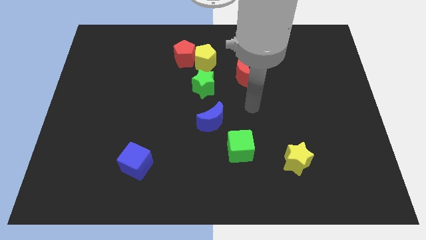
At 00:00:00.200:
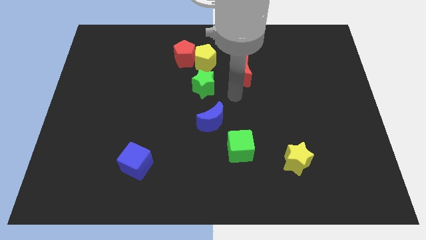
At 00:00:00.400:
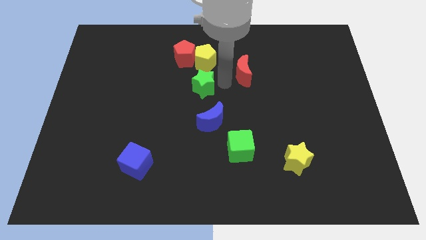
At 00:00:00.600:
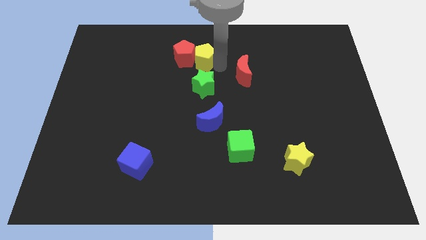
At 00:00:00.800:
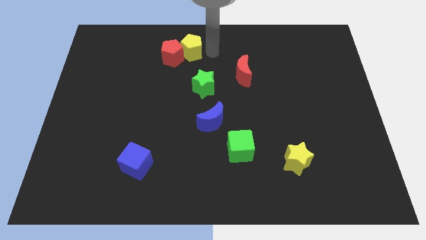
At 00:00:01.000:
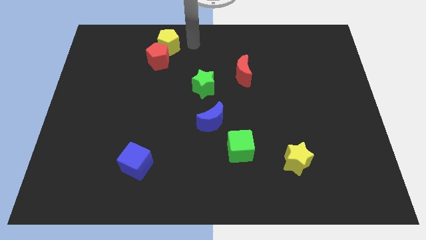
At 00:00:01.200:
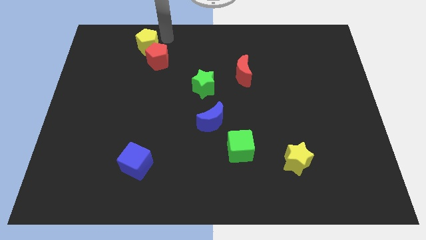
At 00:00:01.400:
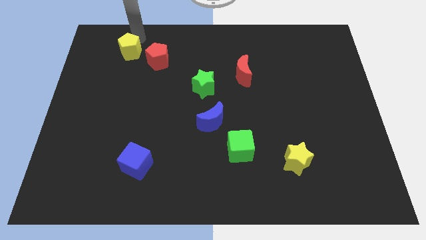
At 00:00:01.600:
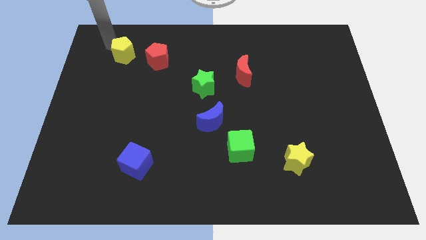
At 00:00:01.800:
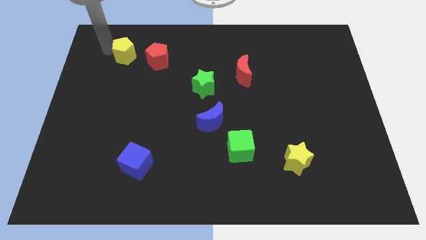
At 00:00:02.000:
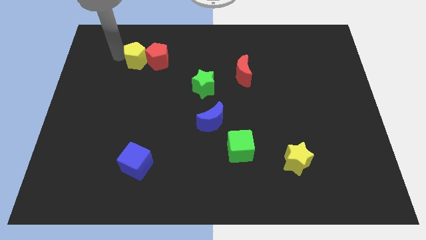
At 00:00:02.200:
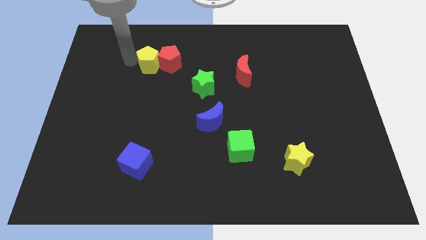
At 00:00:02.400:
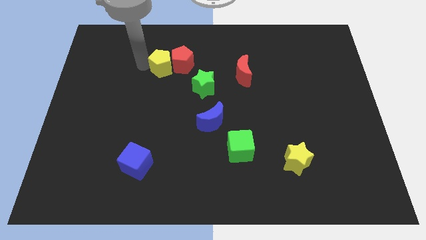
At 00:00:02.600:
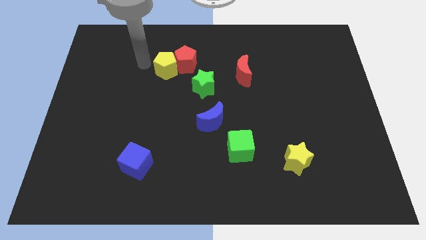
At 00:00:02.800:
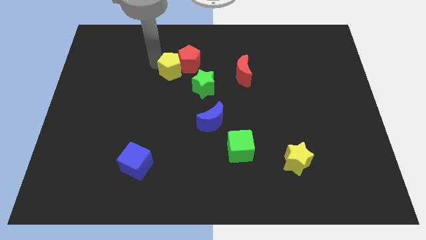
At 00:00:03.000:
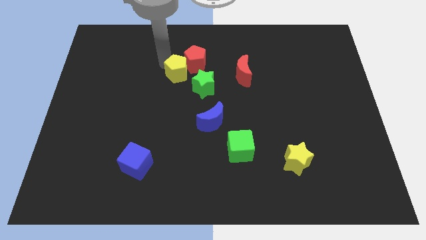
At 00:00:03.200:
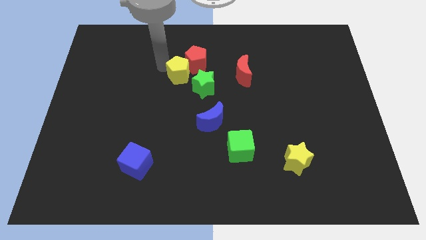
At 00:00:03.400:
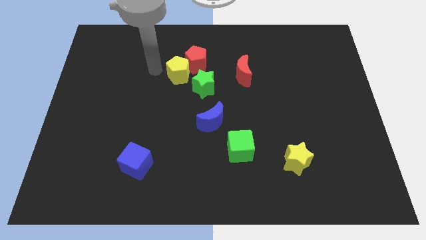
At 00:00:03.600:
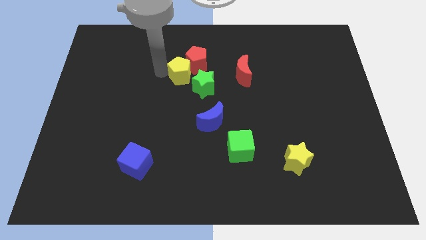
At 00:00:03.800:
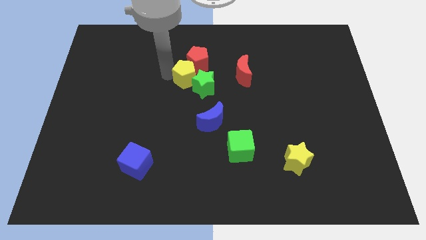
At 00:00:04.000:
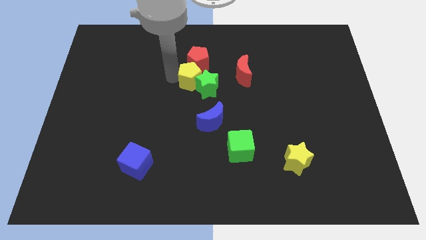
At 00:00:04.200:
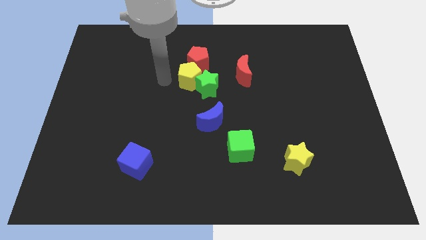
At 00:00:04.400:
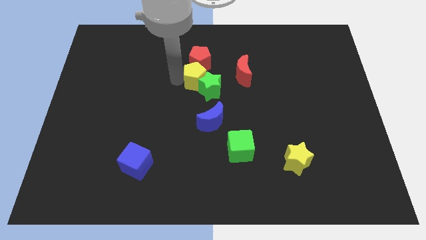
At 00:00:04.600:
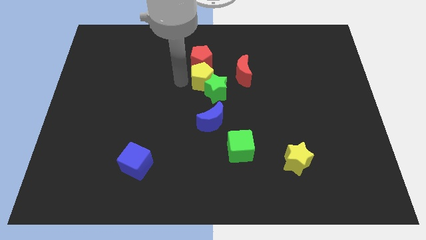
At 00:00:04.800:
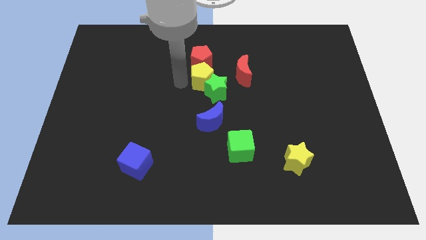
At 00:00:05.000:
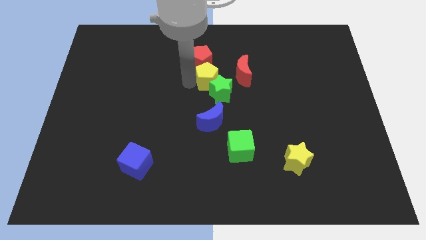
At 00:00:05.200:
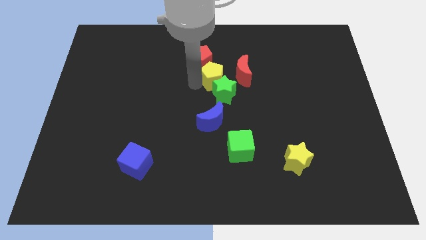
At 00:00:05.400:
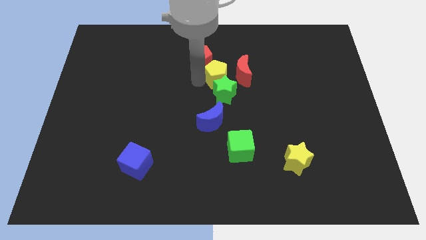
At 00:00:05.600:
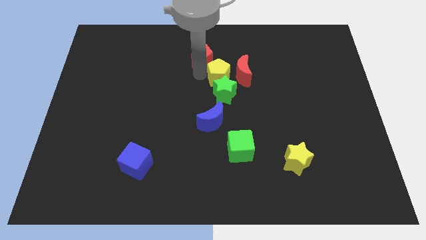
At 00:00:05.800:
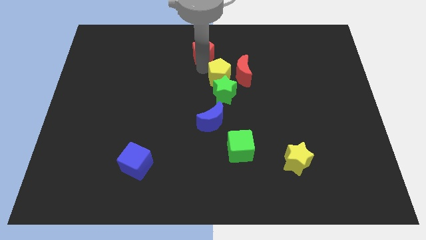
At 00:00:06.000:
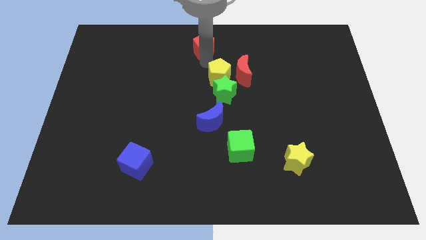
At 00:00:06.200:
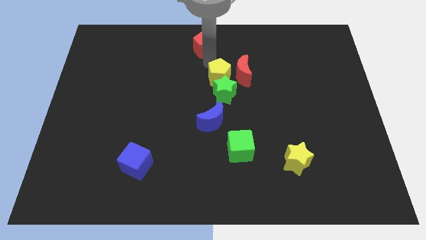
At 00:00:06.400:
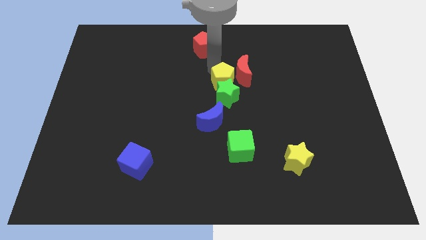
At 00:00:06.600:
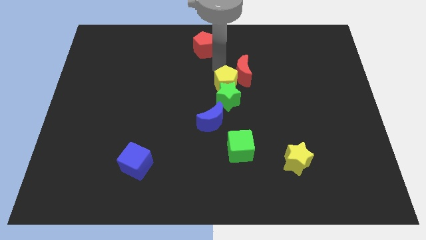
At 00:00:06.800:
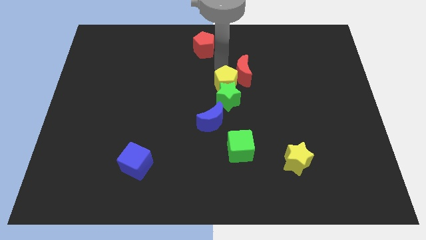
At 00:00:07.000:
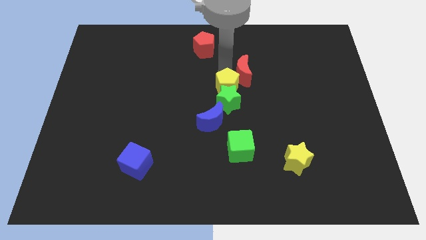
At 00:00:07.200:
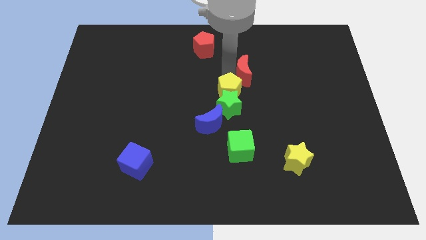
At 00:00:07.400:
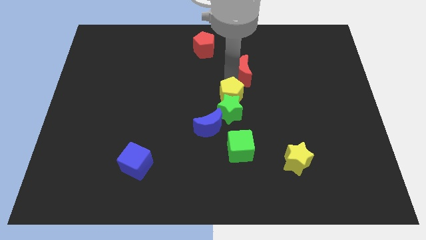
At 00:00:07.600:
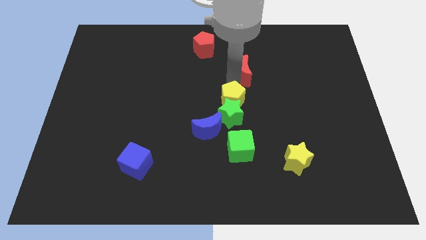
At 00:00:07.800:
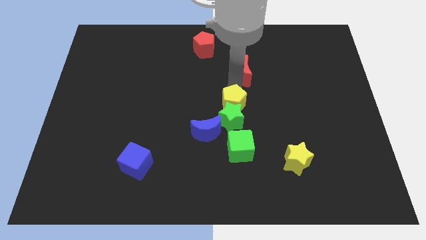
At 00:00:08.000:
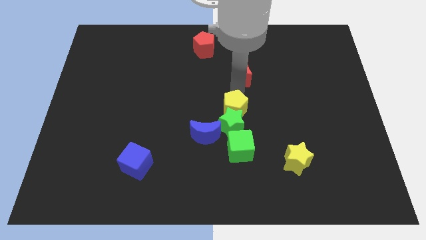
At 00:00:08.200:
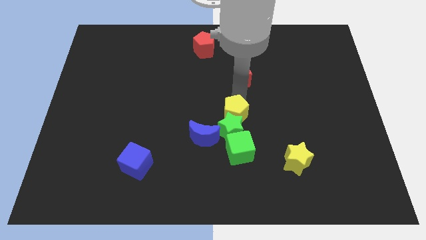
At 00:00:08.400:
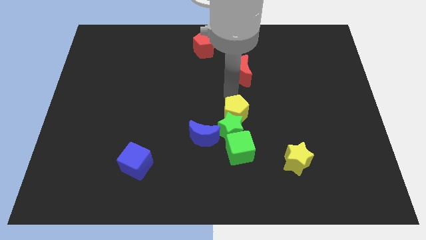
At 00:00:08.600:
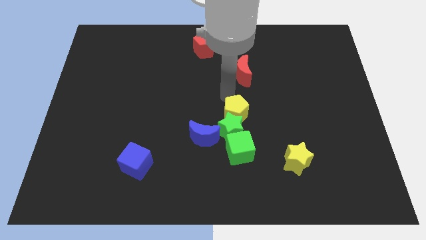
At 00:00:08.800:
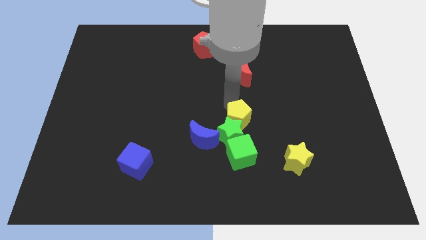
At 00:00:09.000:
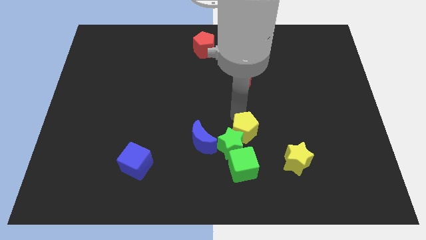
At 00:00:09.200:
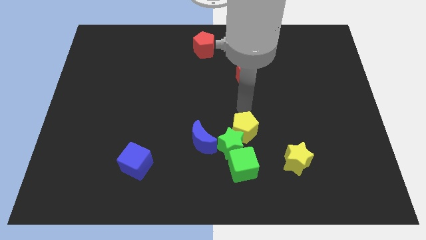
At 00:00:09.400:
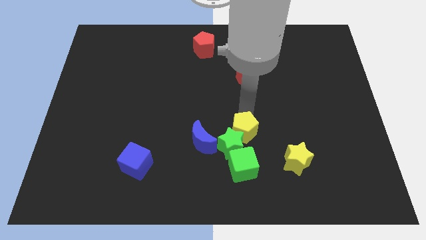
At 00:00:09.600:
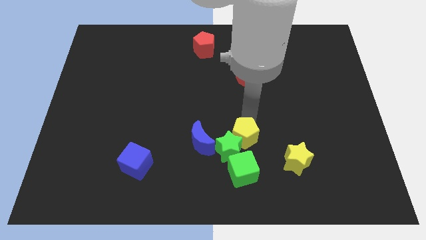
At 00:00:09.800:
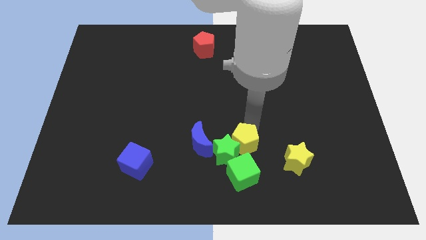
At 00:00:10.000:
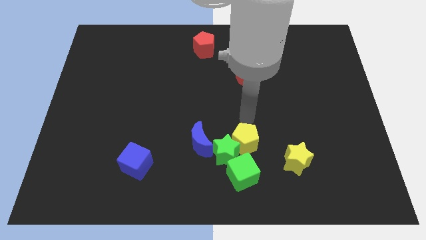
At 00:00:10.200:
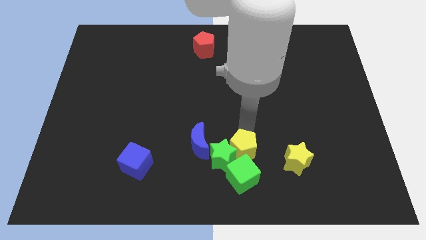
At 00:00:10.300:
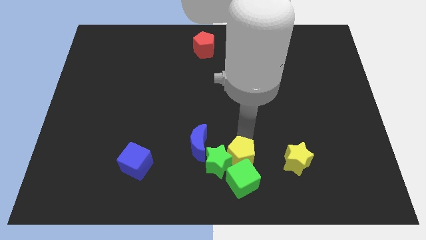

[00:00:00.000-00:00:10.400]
put the yellow pentagon to the green cube

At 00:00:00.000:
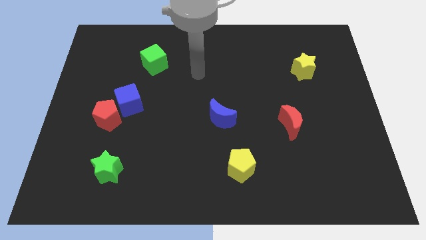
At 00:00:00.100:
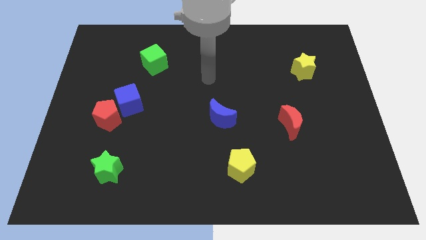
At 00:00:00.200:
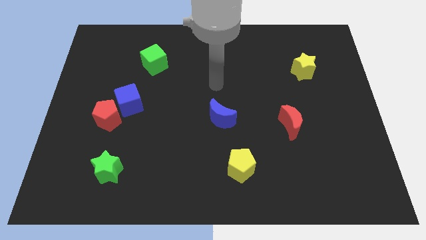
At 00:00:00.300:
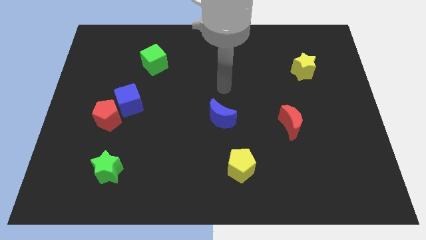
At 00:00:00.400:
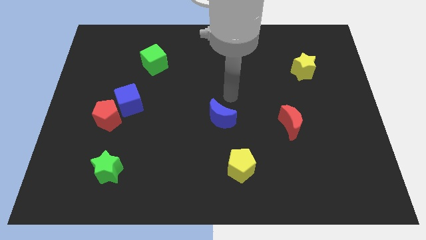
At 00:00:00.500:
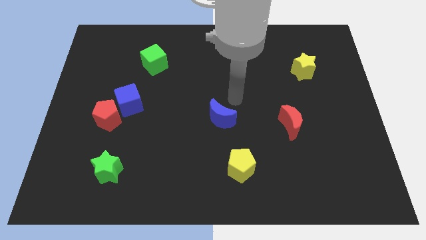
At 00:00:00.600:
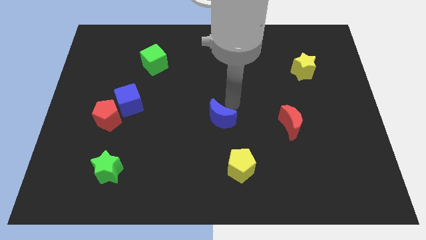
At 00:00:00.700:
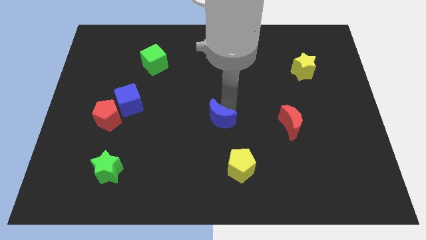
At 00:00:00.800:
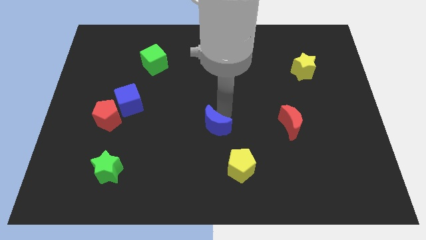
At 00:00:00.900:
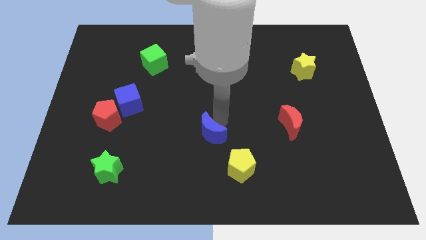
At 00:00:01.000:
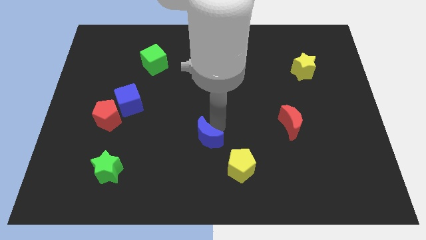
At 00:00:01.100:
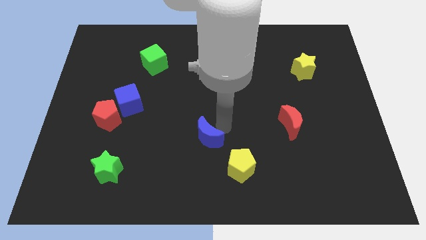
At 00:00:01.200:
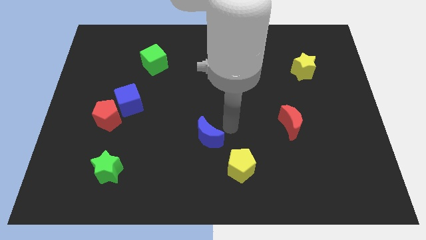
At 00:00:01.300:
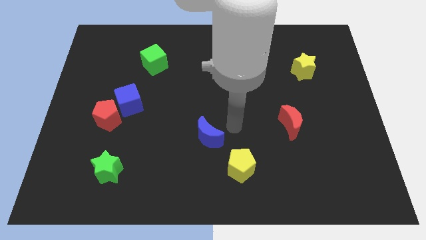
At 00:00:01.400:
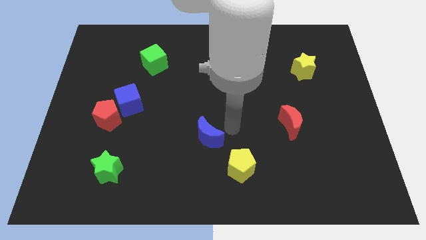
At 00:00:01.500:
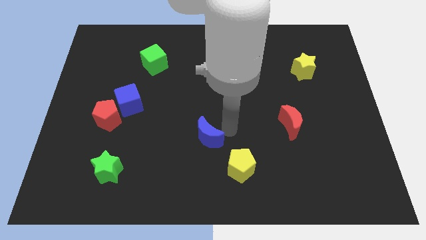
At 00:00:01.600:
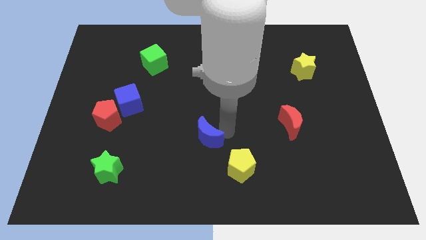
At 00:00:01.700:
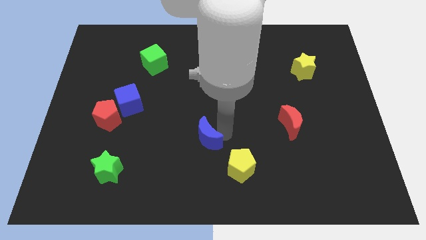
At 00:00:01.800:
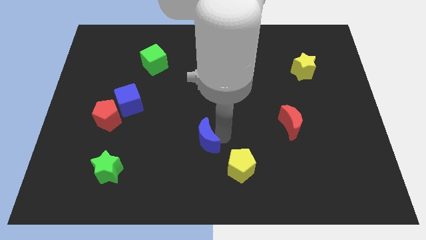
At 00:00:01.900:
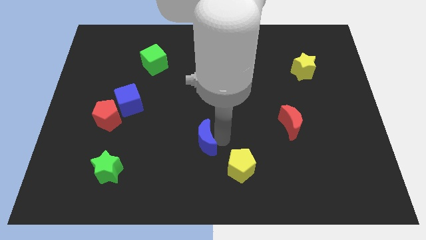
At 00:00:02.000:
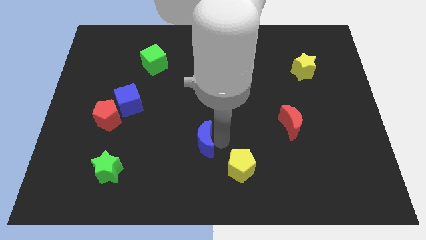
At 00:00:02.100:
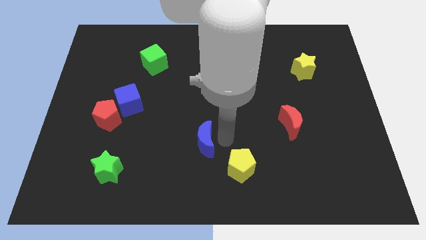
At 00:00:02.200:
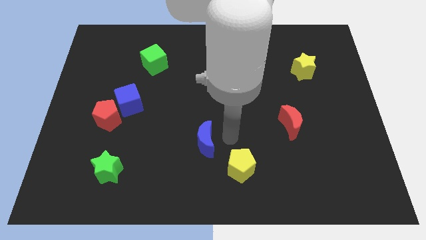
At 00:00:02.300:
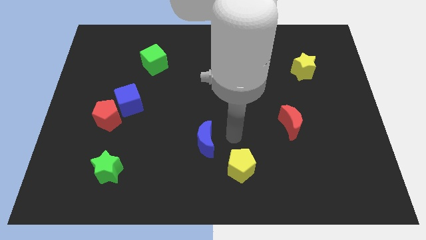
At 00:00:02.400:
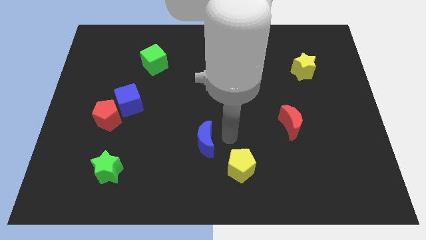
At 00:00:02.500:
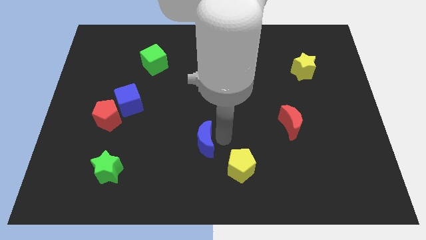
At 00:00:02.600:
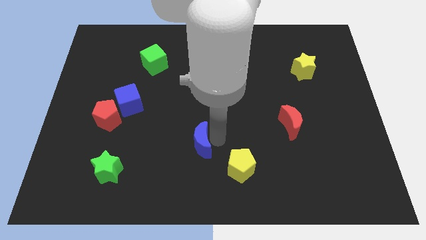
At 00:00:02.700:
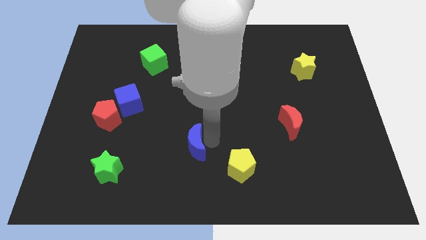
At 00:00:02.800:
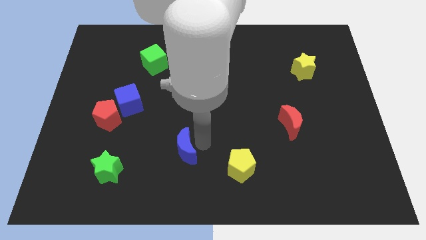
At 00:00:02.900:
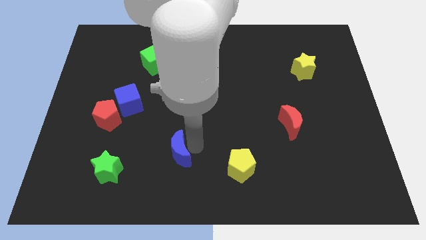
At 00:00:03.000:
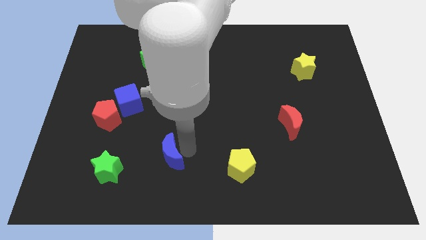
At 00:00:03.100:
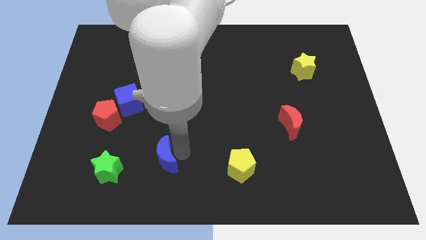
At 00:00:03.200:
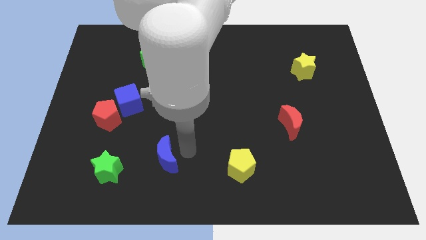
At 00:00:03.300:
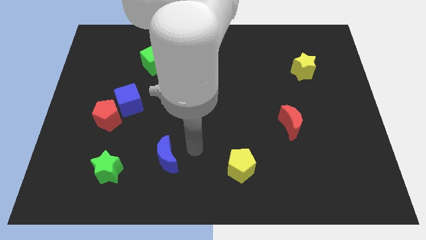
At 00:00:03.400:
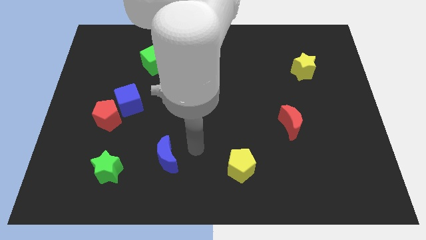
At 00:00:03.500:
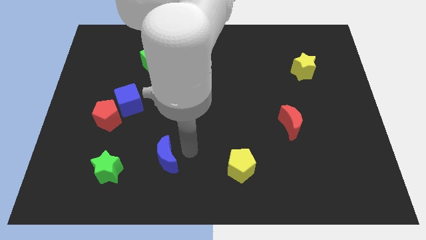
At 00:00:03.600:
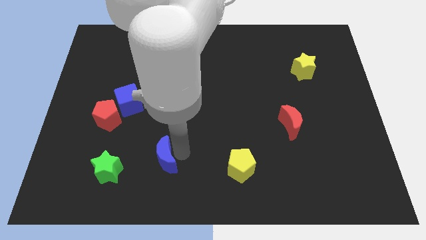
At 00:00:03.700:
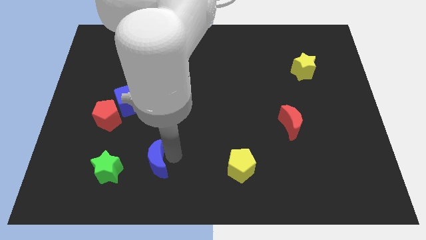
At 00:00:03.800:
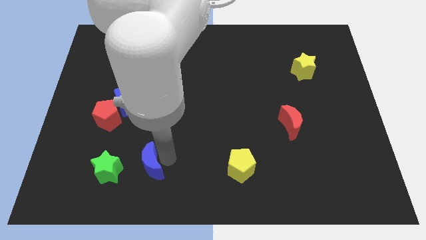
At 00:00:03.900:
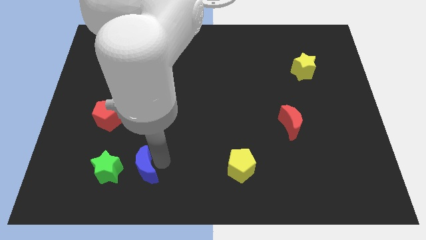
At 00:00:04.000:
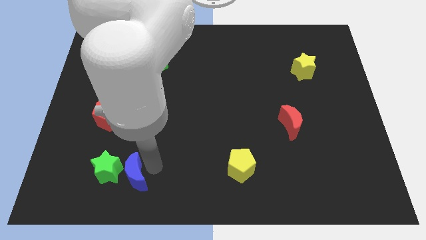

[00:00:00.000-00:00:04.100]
slide the blue moon to the green star
